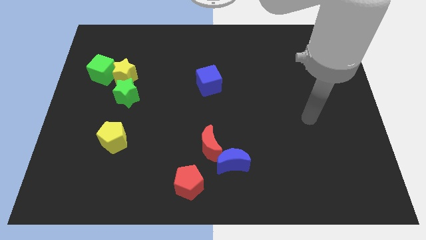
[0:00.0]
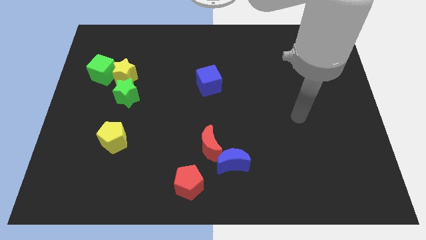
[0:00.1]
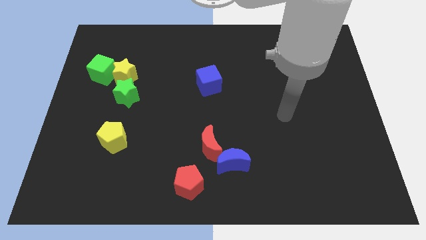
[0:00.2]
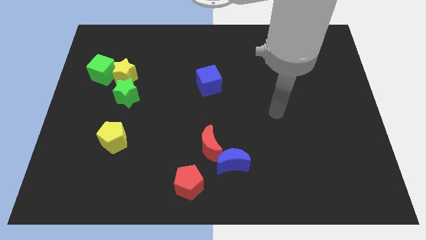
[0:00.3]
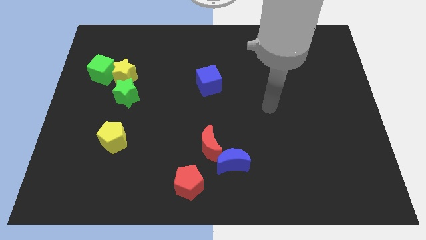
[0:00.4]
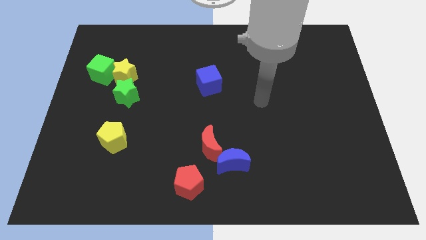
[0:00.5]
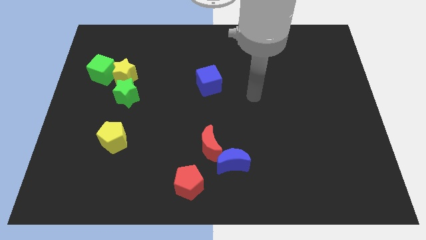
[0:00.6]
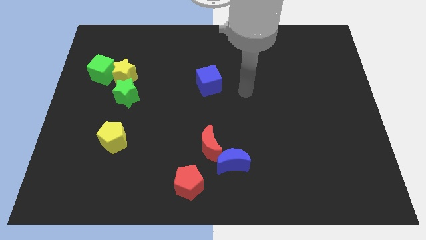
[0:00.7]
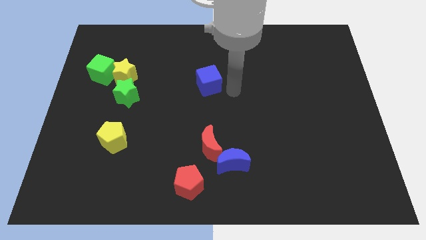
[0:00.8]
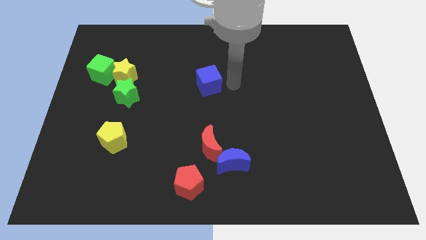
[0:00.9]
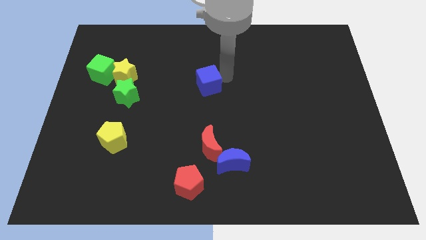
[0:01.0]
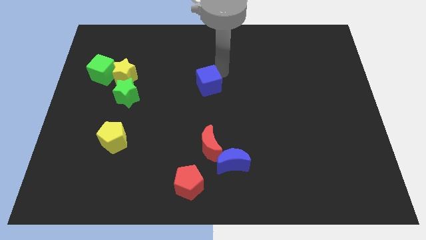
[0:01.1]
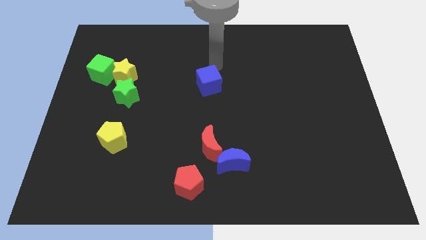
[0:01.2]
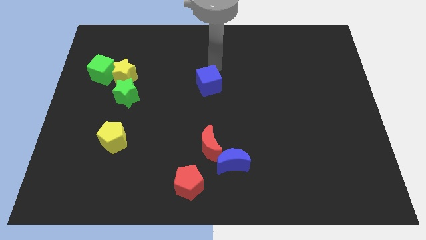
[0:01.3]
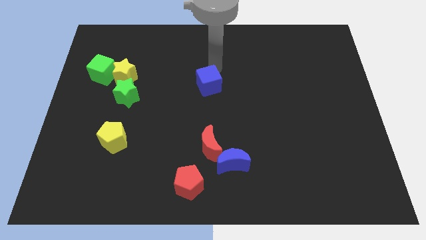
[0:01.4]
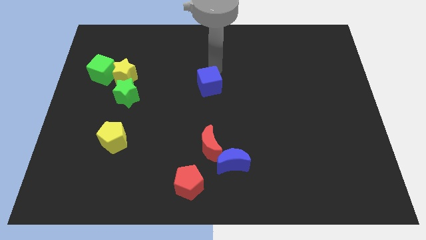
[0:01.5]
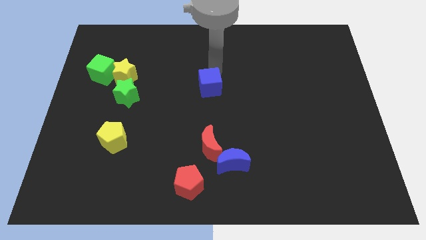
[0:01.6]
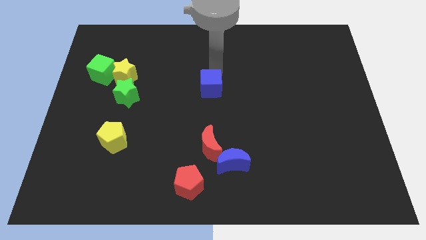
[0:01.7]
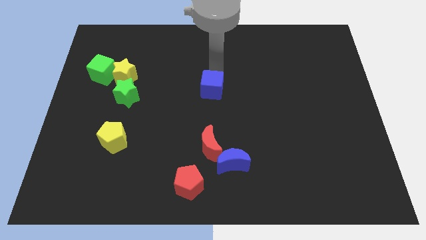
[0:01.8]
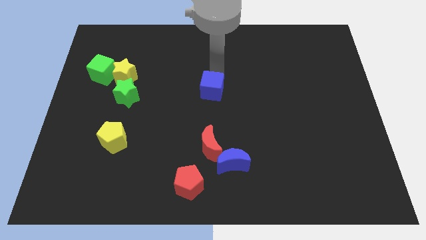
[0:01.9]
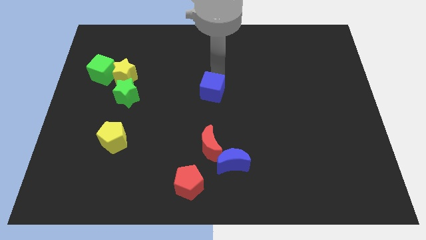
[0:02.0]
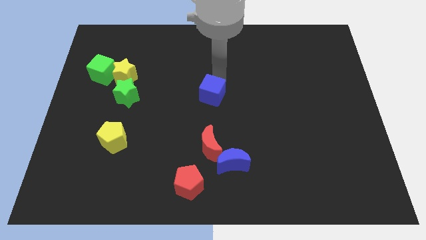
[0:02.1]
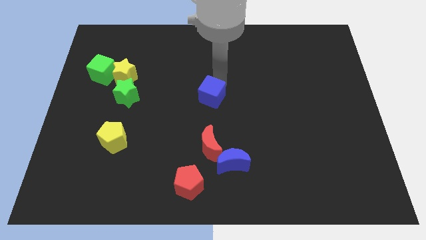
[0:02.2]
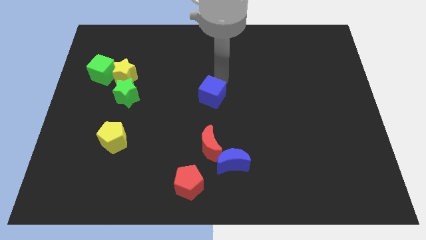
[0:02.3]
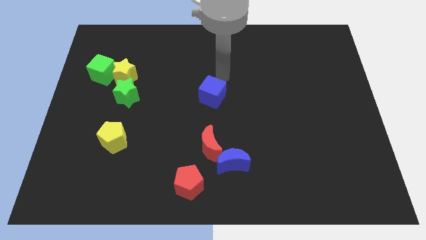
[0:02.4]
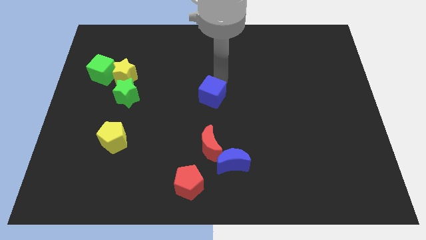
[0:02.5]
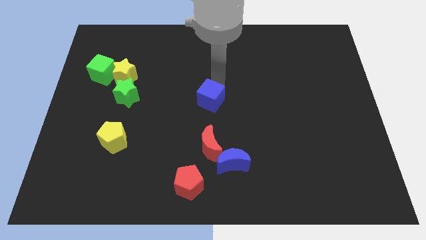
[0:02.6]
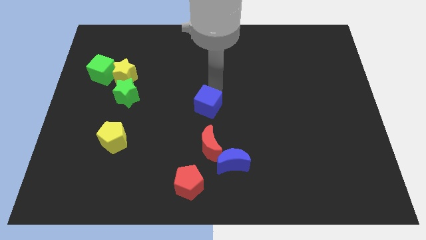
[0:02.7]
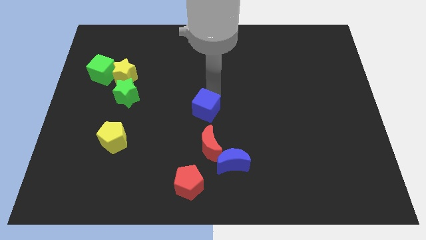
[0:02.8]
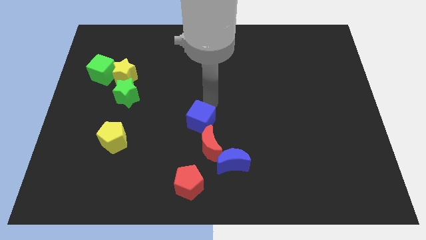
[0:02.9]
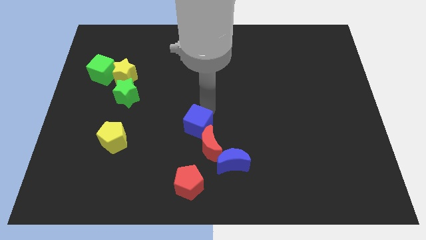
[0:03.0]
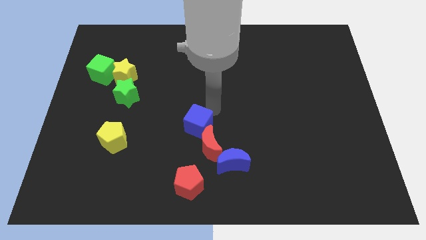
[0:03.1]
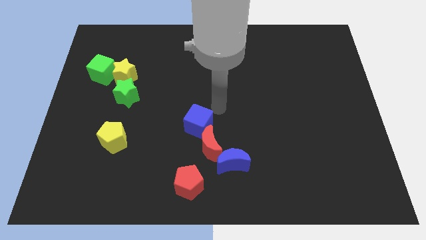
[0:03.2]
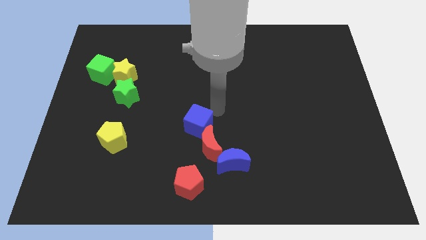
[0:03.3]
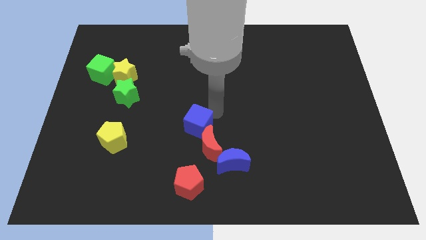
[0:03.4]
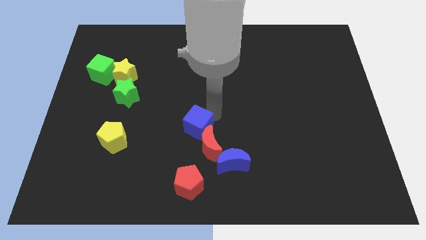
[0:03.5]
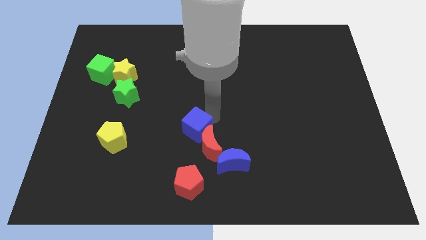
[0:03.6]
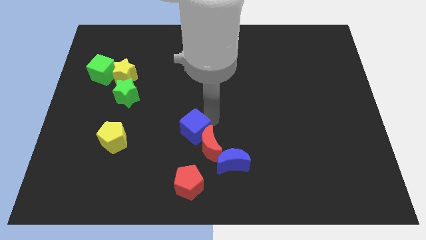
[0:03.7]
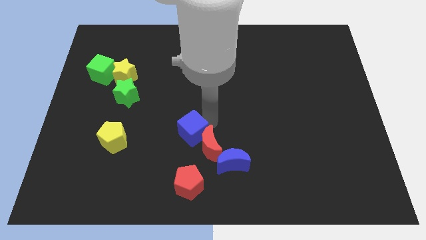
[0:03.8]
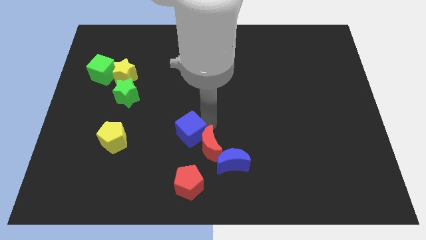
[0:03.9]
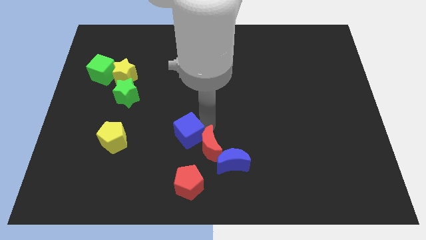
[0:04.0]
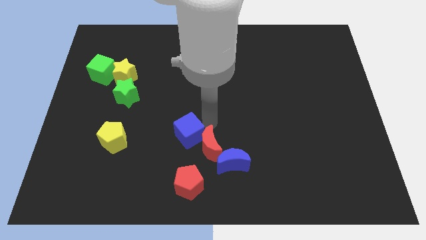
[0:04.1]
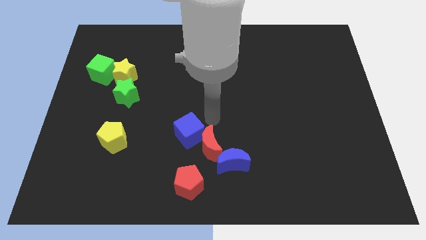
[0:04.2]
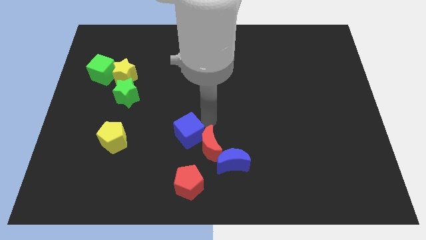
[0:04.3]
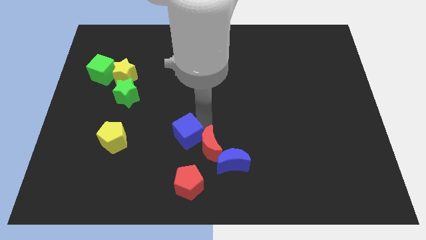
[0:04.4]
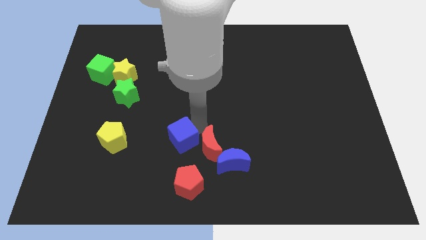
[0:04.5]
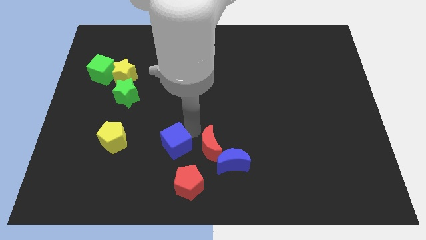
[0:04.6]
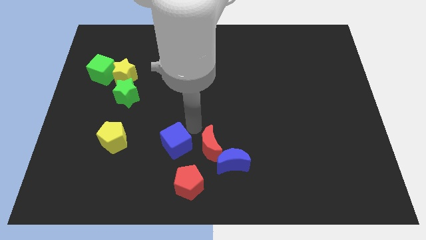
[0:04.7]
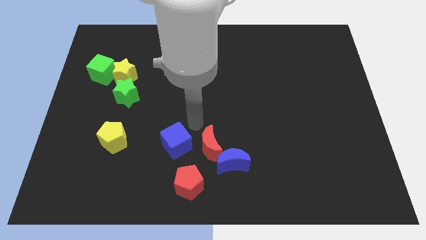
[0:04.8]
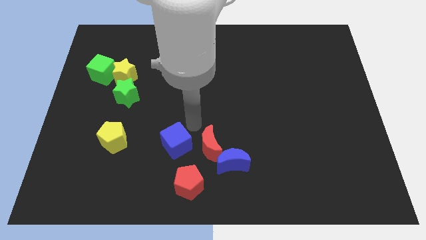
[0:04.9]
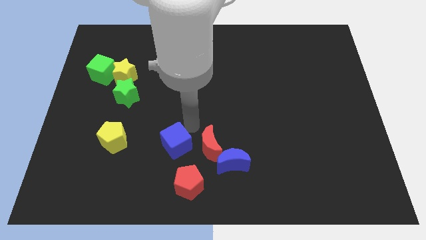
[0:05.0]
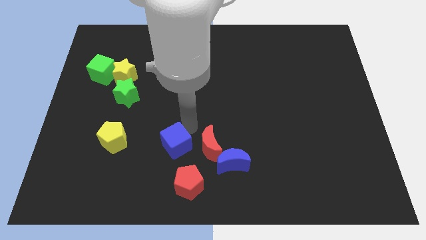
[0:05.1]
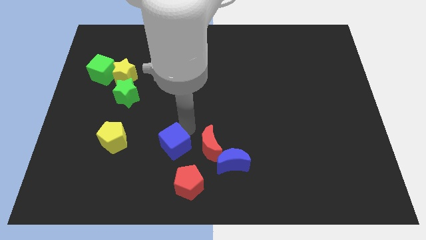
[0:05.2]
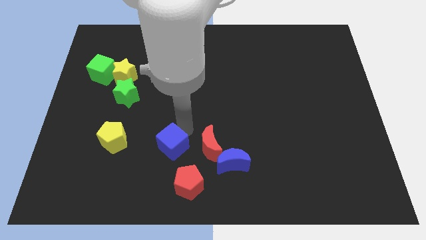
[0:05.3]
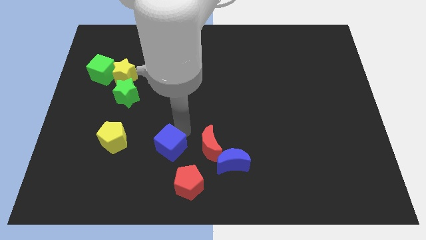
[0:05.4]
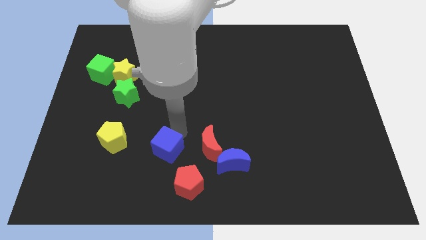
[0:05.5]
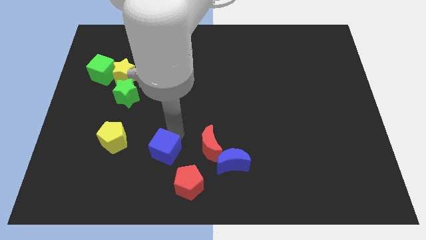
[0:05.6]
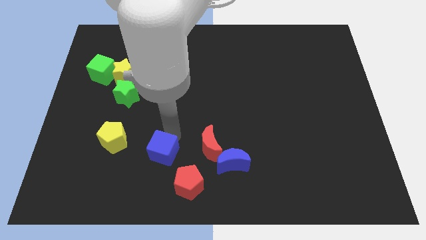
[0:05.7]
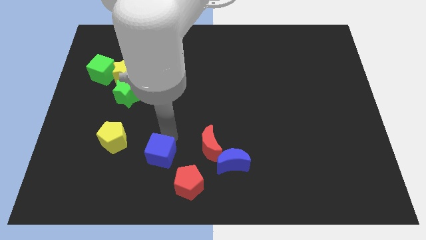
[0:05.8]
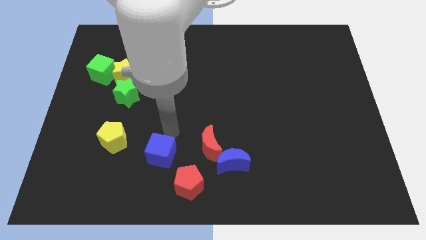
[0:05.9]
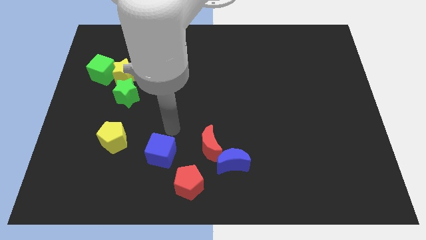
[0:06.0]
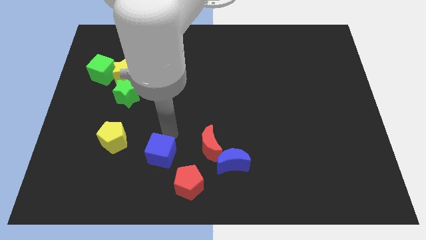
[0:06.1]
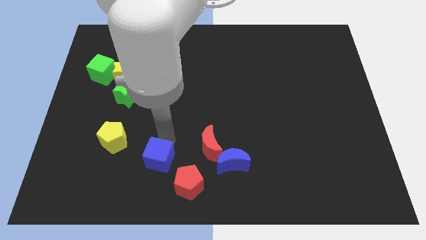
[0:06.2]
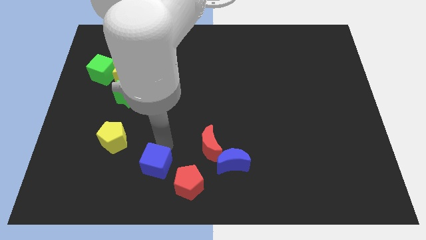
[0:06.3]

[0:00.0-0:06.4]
push the blue cube just left of the red pentagon

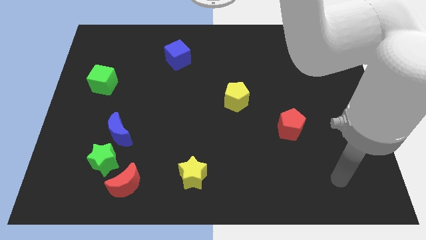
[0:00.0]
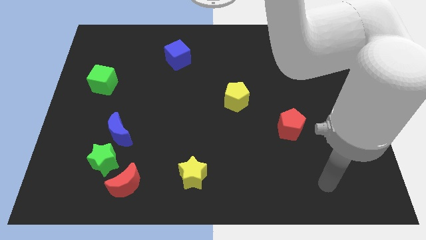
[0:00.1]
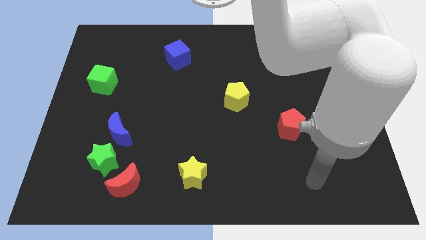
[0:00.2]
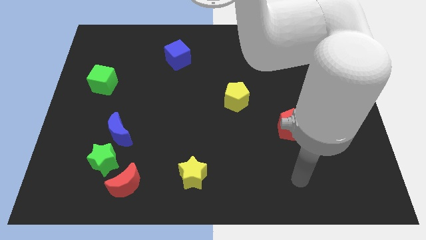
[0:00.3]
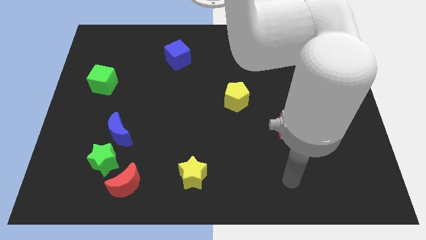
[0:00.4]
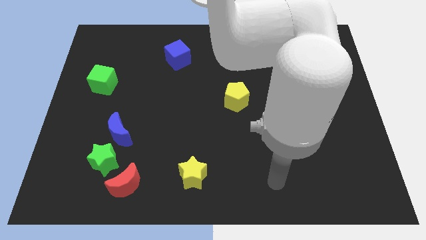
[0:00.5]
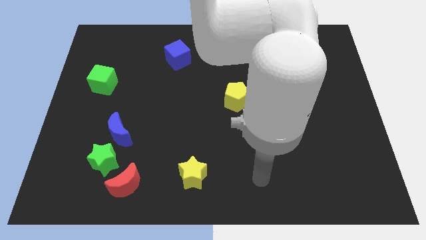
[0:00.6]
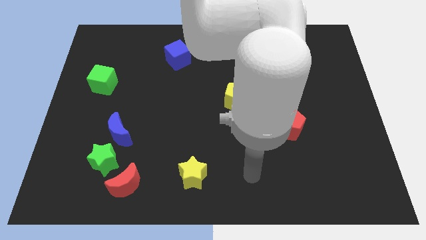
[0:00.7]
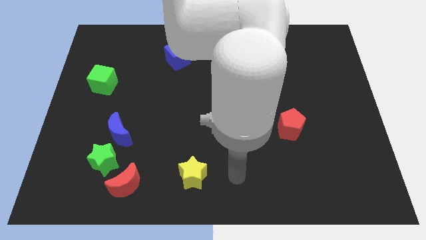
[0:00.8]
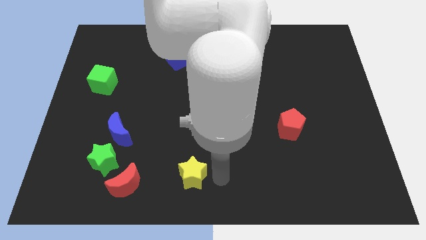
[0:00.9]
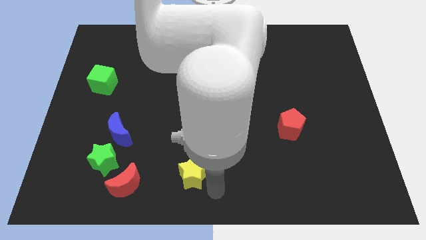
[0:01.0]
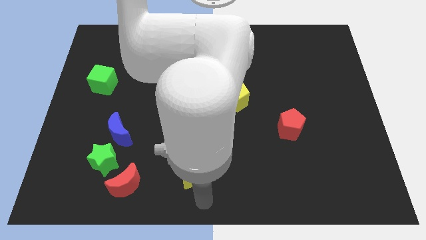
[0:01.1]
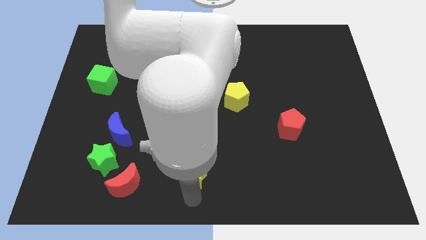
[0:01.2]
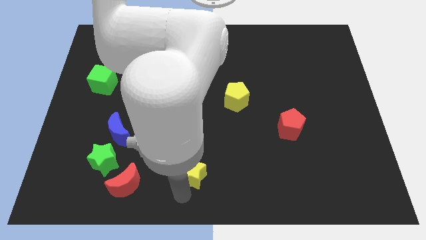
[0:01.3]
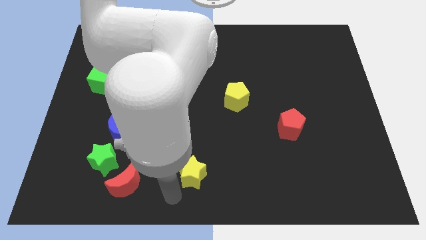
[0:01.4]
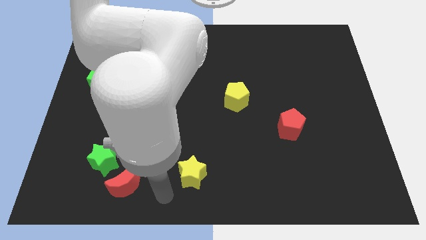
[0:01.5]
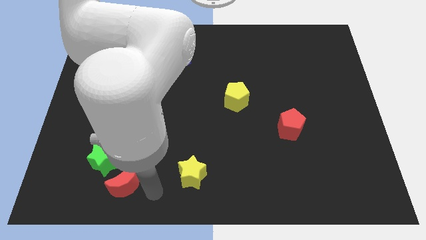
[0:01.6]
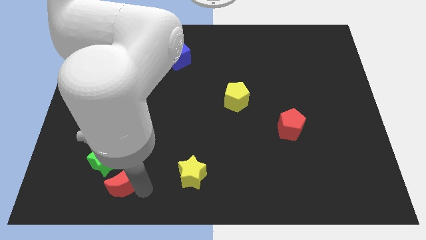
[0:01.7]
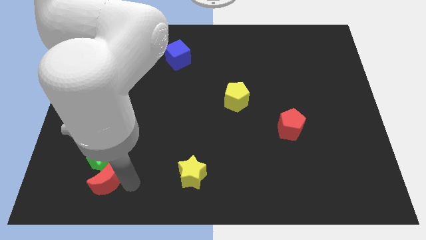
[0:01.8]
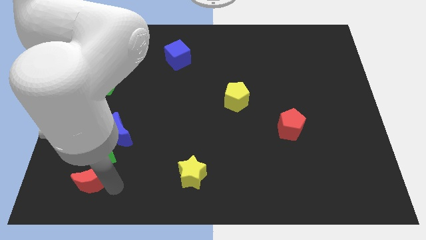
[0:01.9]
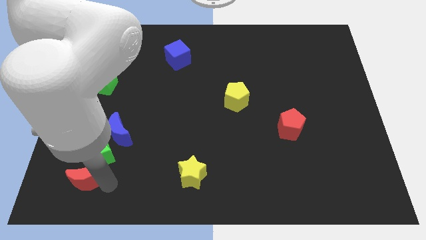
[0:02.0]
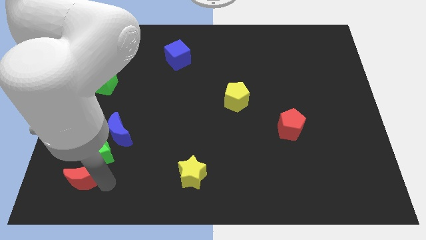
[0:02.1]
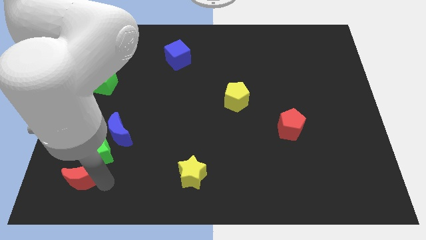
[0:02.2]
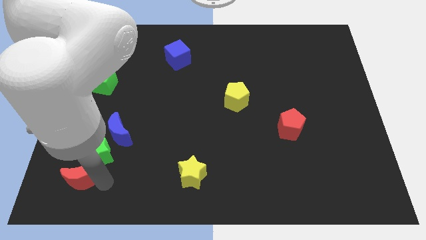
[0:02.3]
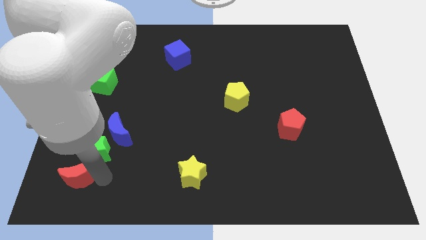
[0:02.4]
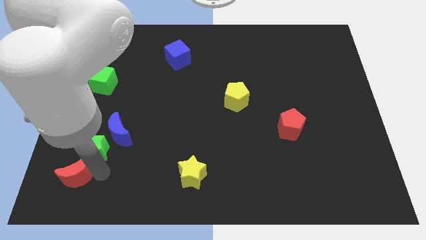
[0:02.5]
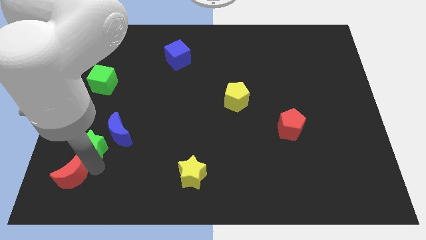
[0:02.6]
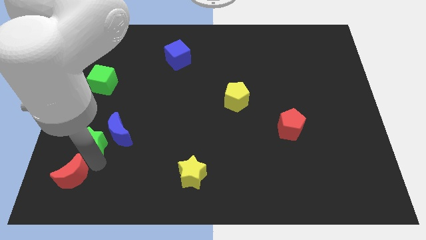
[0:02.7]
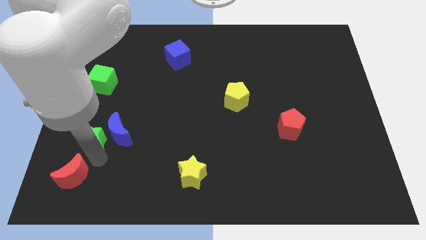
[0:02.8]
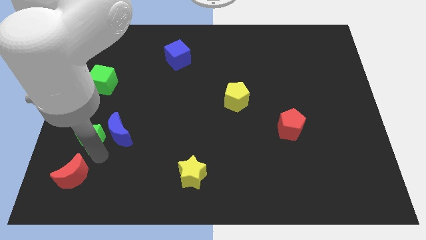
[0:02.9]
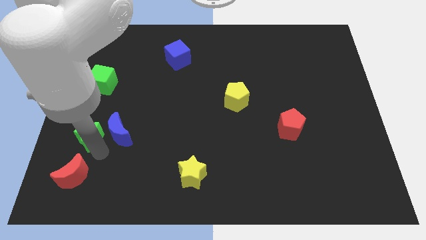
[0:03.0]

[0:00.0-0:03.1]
put the green star to the bottom of the green cube
